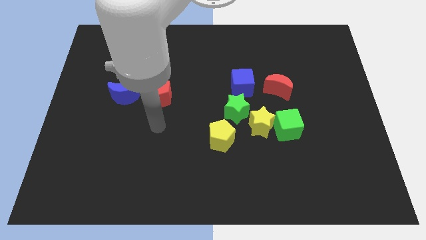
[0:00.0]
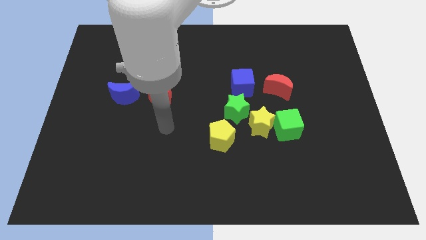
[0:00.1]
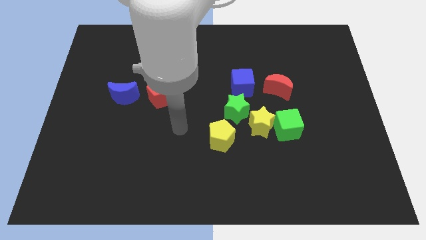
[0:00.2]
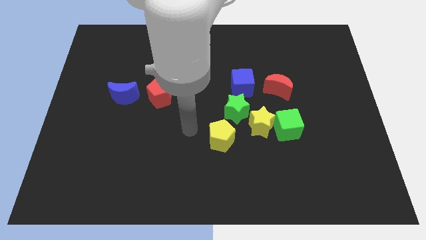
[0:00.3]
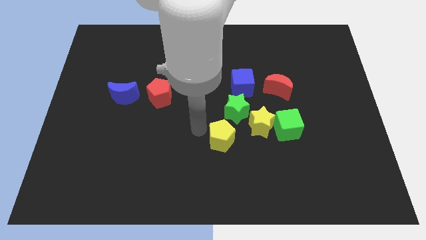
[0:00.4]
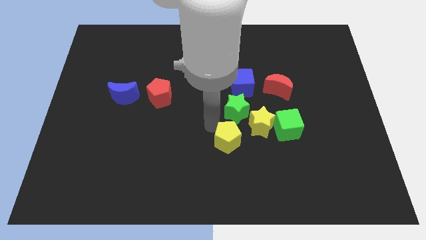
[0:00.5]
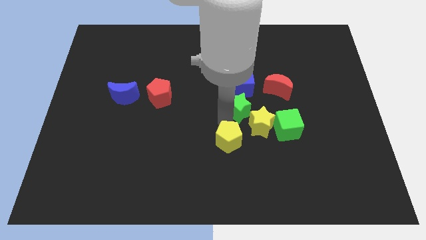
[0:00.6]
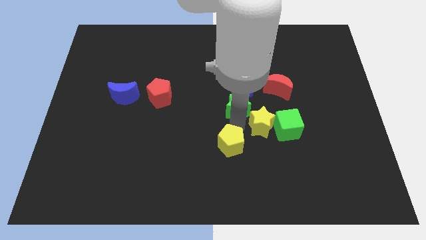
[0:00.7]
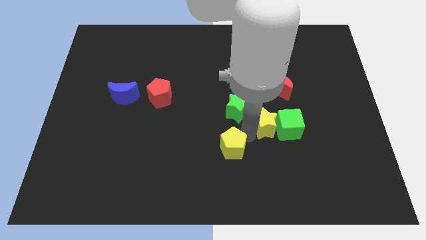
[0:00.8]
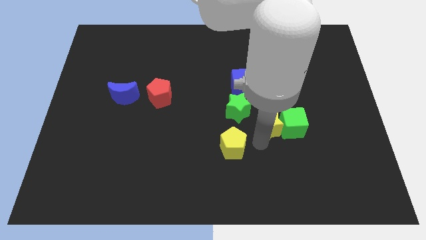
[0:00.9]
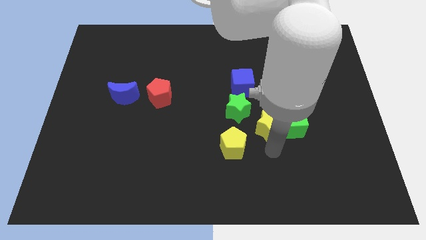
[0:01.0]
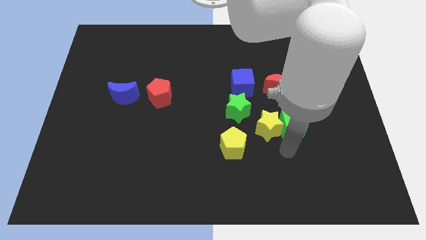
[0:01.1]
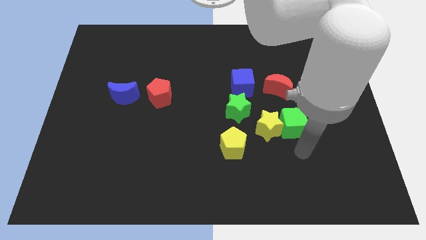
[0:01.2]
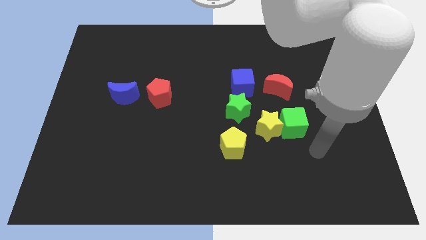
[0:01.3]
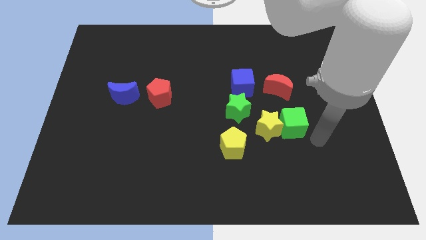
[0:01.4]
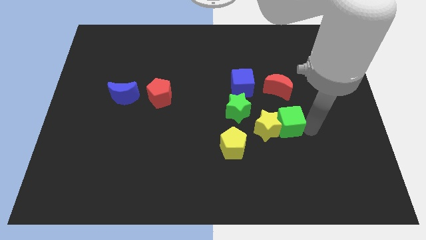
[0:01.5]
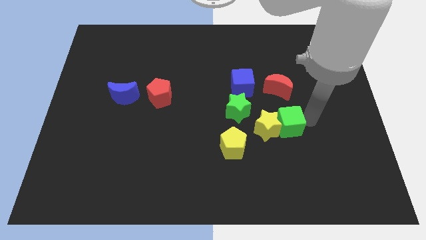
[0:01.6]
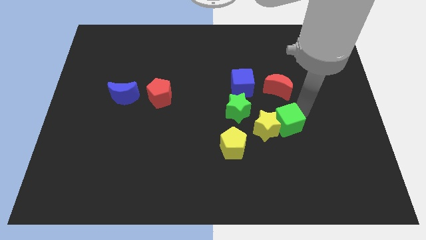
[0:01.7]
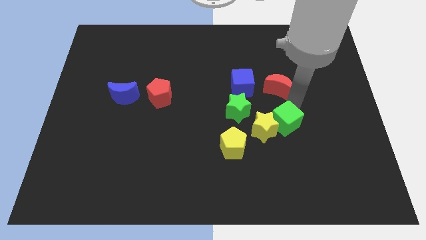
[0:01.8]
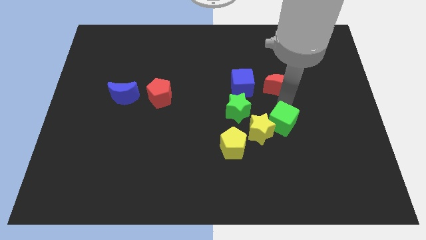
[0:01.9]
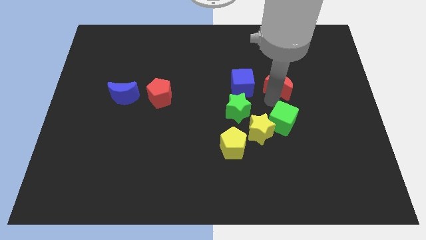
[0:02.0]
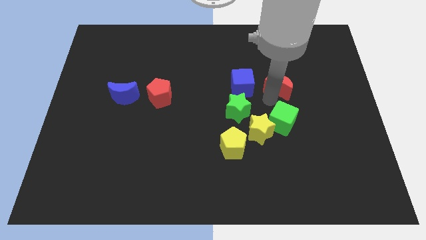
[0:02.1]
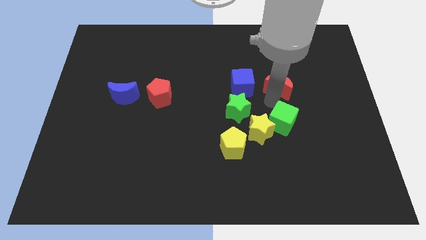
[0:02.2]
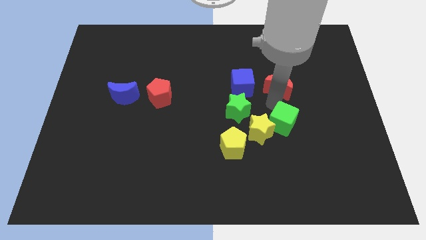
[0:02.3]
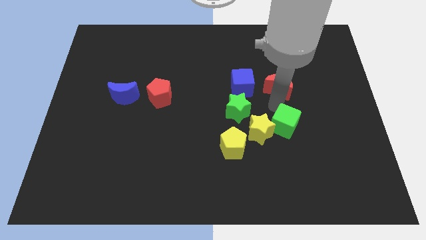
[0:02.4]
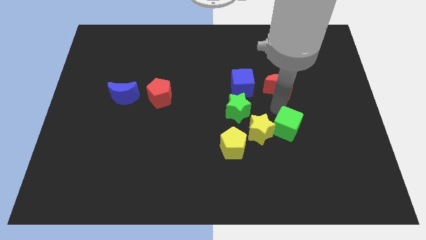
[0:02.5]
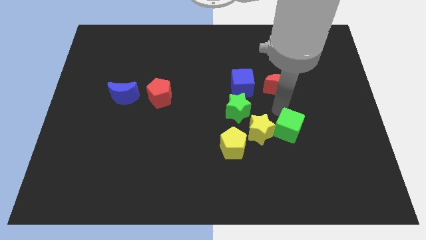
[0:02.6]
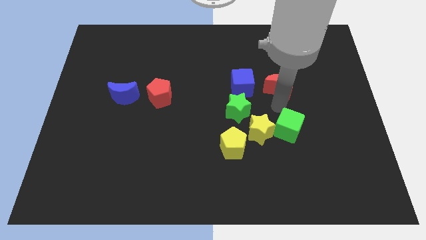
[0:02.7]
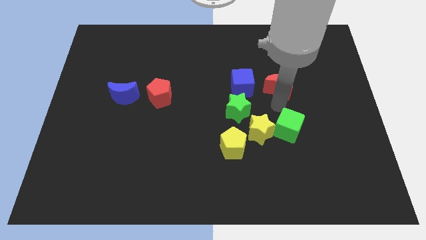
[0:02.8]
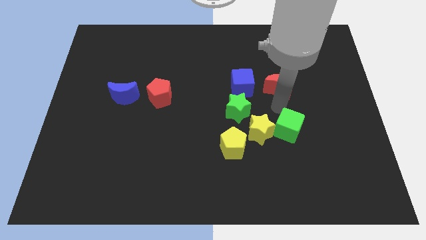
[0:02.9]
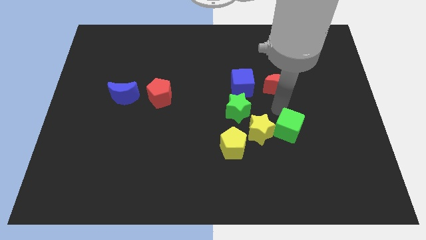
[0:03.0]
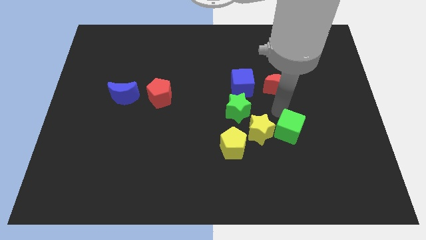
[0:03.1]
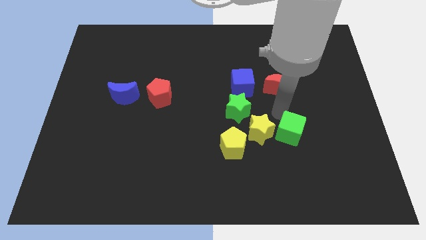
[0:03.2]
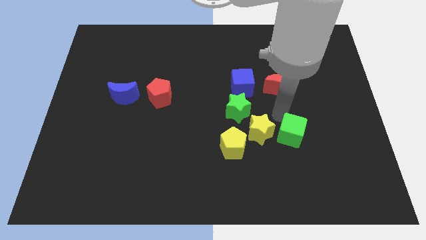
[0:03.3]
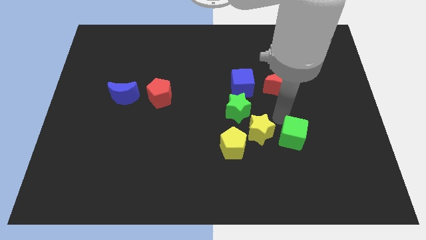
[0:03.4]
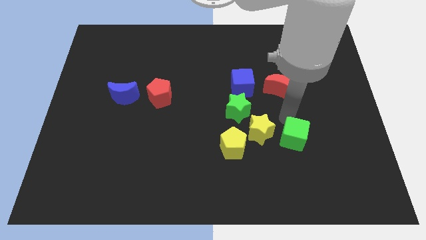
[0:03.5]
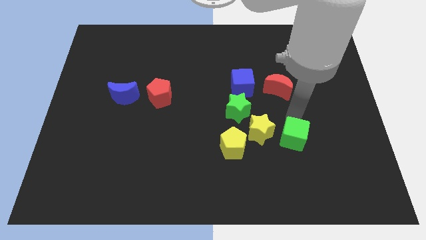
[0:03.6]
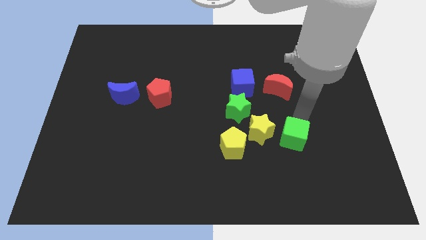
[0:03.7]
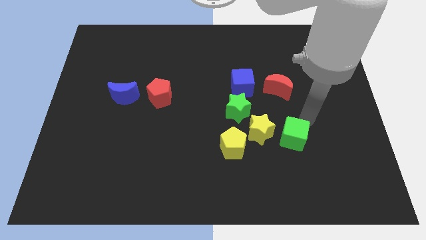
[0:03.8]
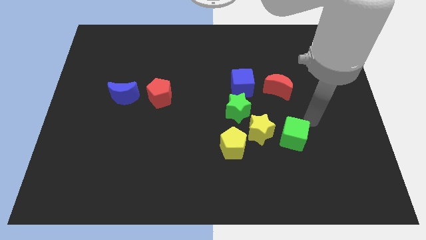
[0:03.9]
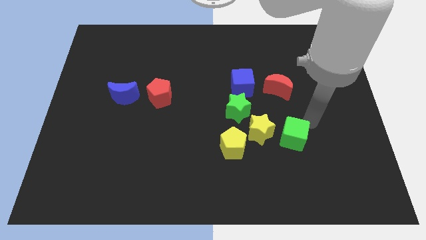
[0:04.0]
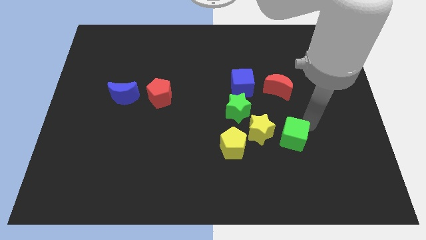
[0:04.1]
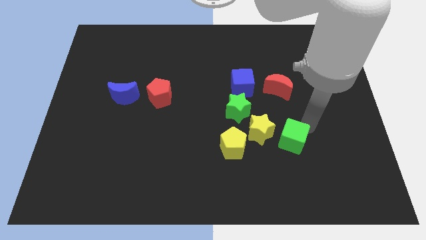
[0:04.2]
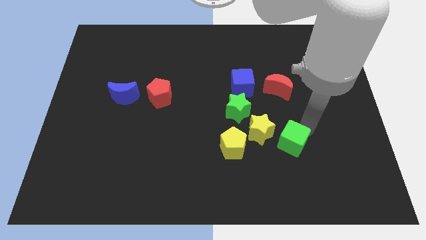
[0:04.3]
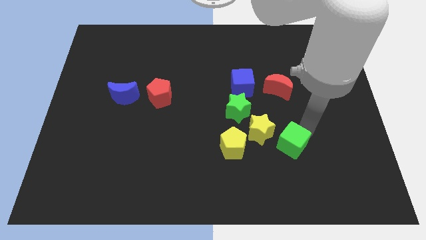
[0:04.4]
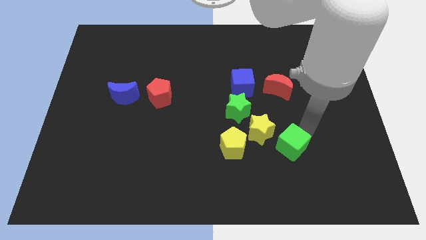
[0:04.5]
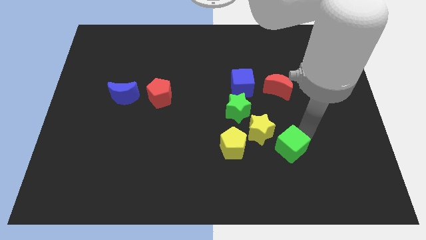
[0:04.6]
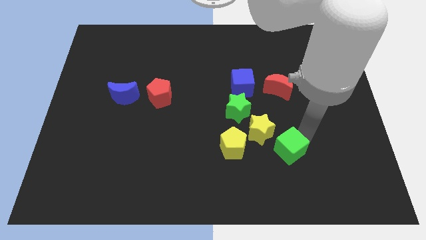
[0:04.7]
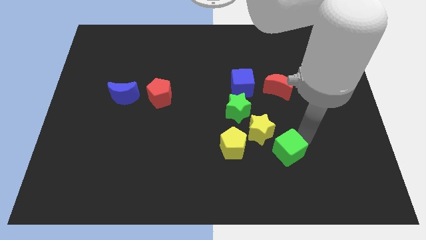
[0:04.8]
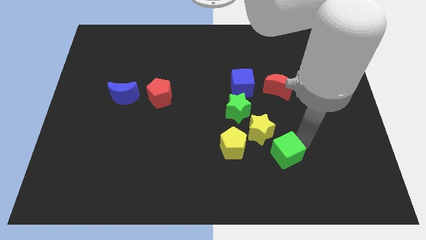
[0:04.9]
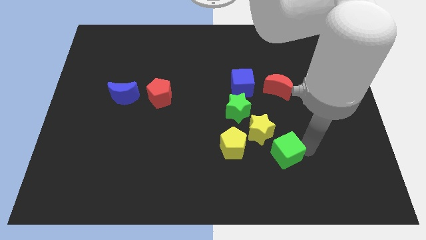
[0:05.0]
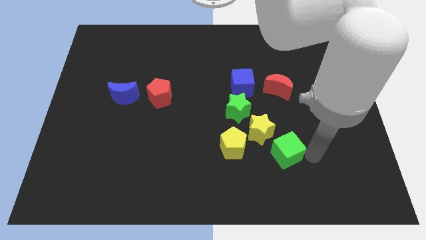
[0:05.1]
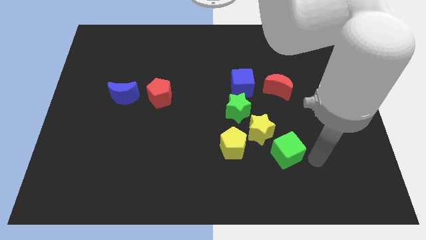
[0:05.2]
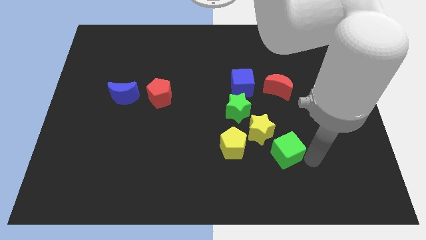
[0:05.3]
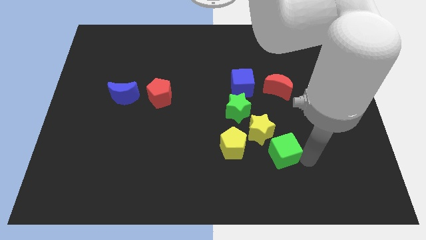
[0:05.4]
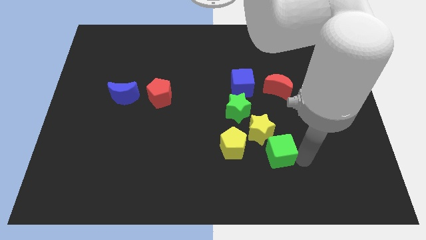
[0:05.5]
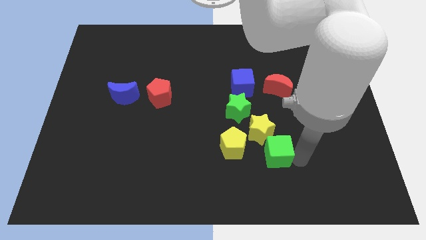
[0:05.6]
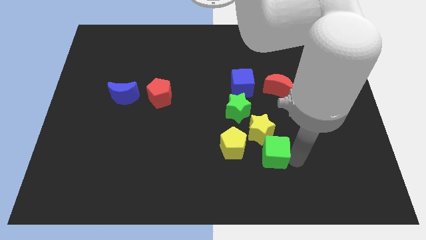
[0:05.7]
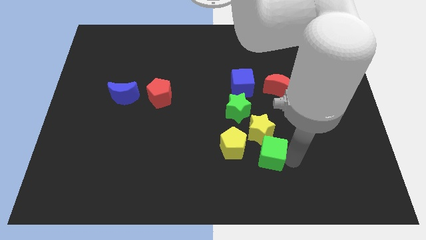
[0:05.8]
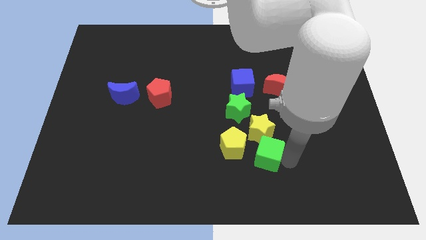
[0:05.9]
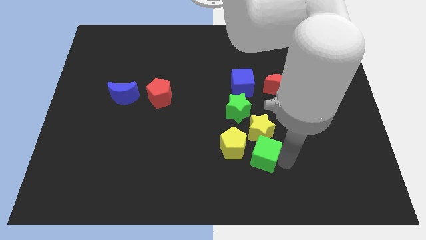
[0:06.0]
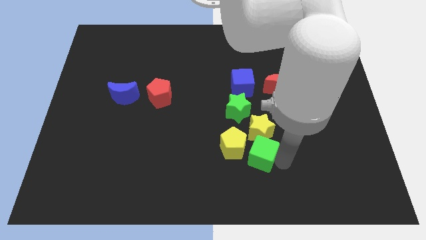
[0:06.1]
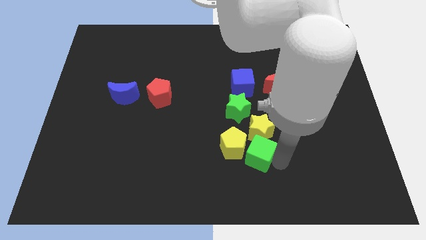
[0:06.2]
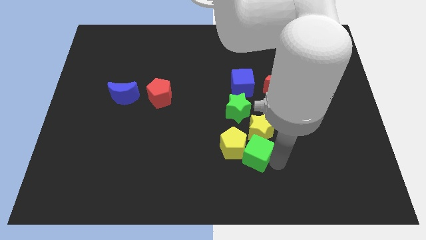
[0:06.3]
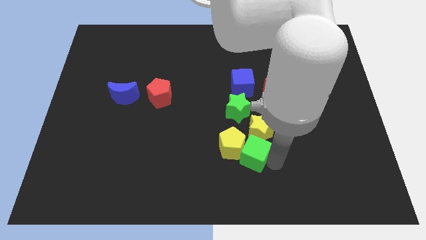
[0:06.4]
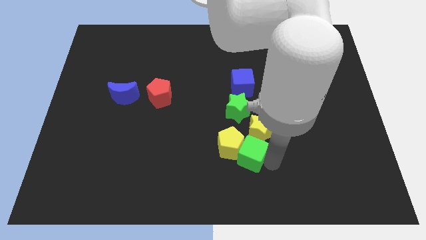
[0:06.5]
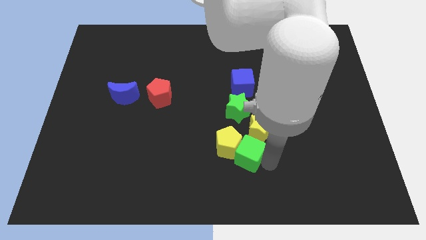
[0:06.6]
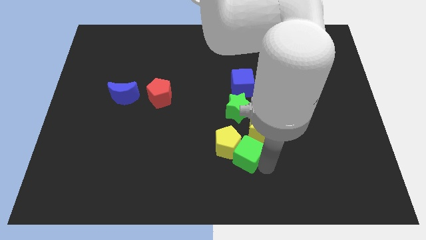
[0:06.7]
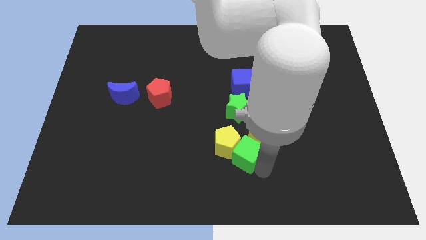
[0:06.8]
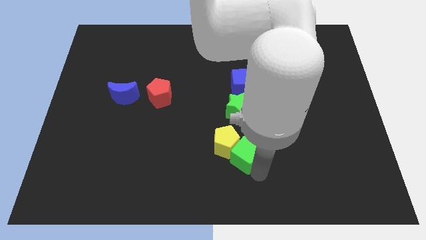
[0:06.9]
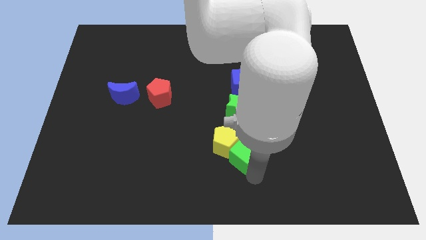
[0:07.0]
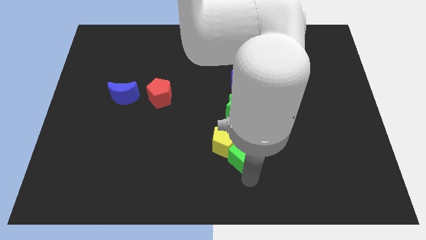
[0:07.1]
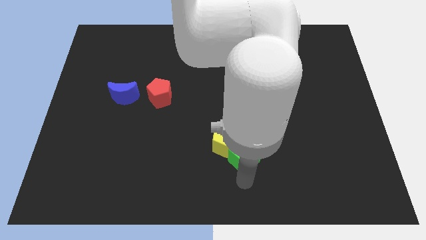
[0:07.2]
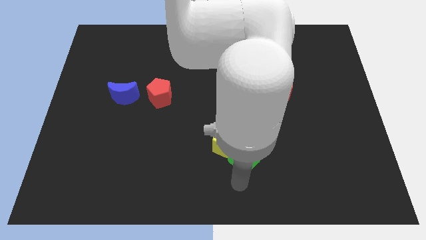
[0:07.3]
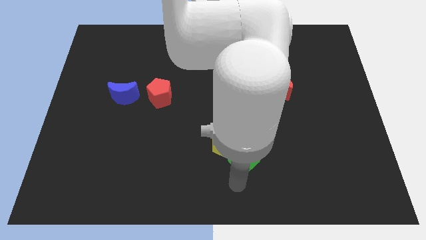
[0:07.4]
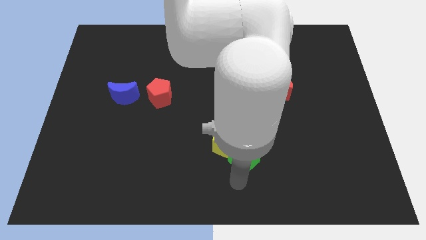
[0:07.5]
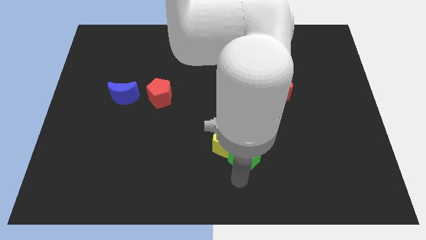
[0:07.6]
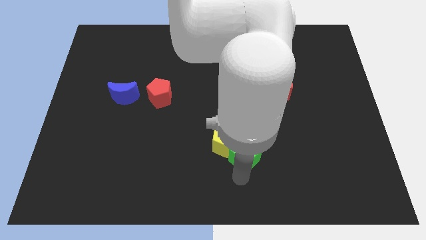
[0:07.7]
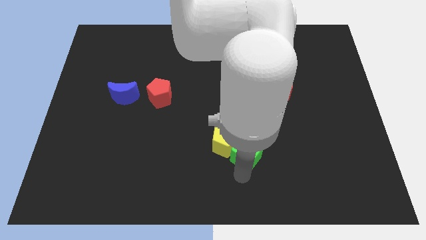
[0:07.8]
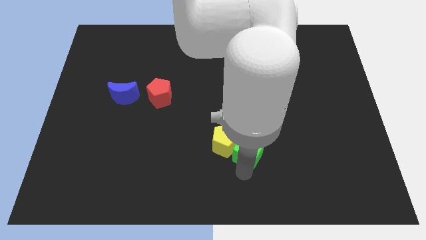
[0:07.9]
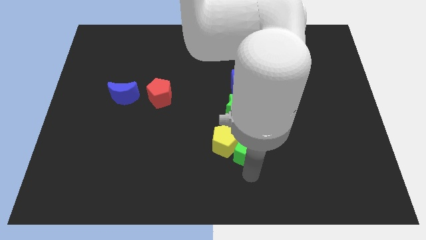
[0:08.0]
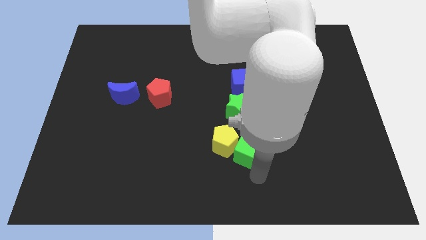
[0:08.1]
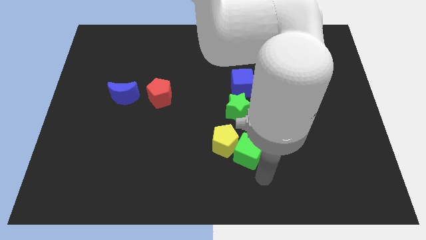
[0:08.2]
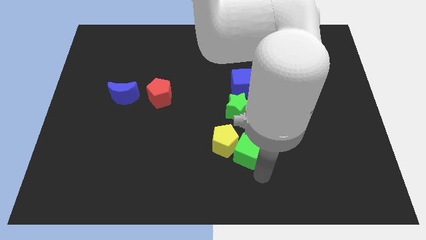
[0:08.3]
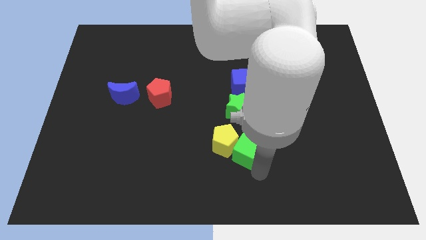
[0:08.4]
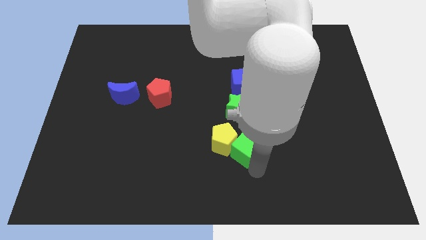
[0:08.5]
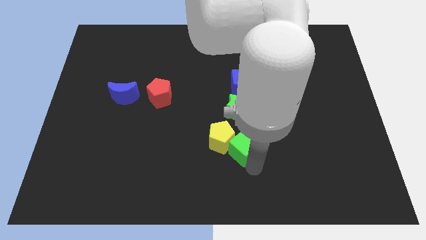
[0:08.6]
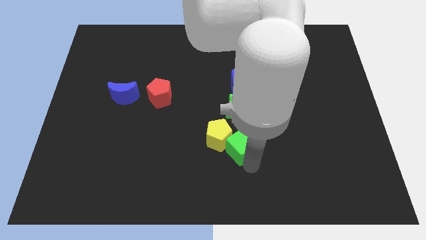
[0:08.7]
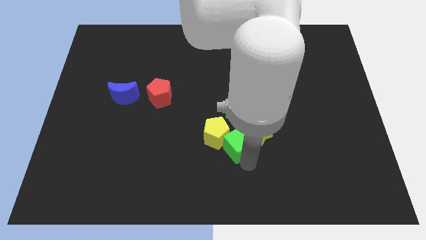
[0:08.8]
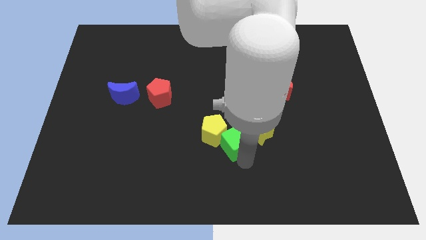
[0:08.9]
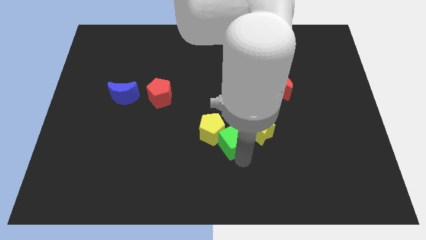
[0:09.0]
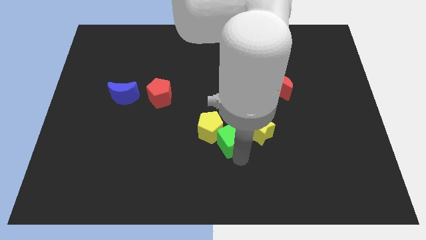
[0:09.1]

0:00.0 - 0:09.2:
push the green cube to the center
